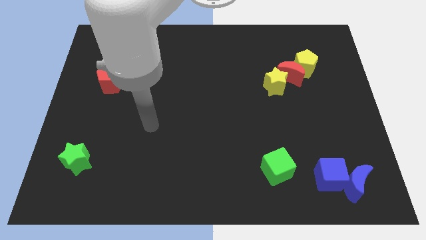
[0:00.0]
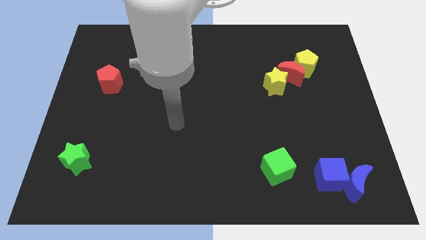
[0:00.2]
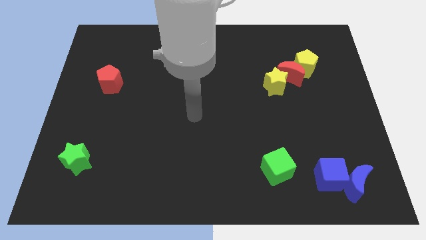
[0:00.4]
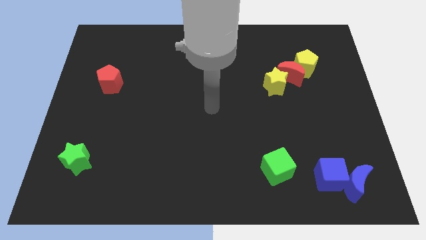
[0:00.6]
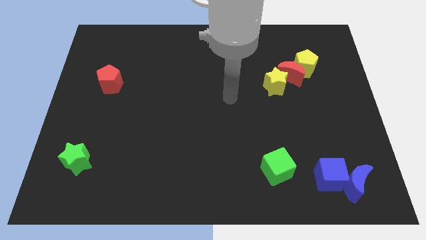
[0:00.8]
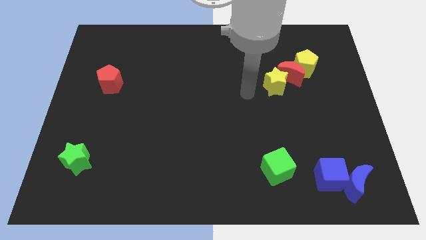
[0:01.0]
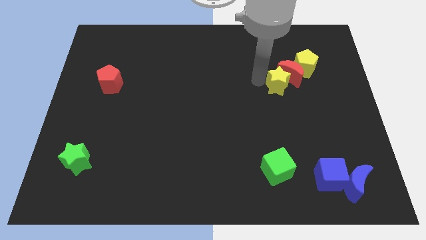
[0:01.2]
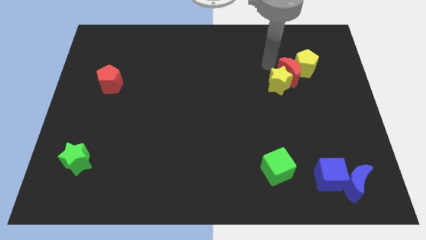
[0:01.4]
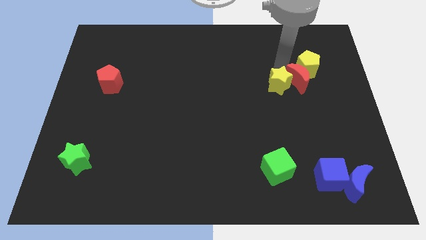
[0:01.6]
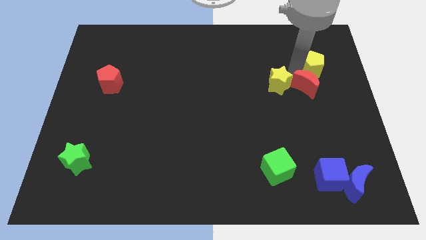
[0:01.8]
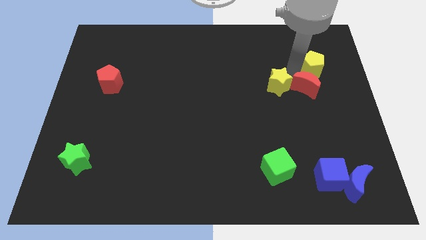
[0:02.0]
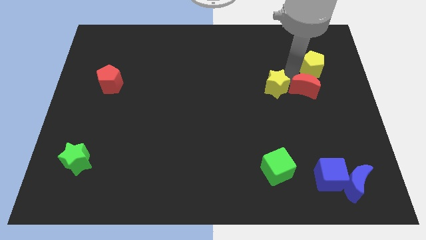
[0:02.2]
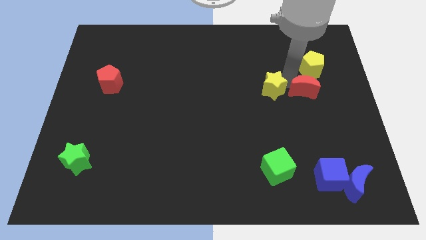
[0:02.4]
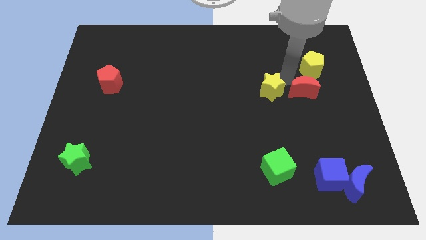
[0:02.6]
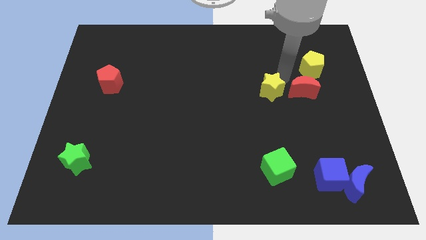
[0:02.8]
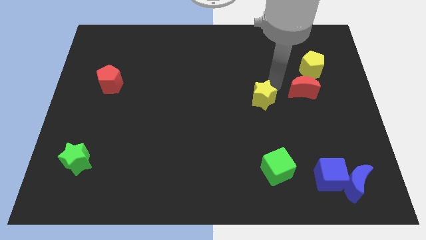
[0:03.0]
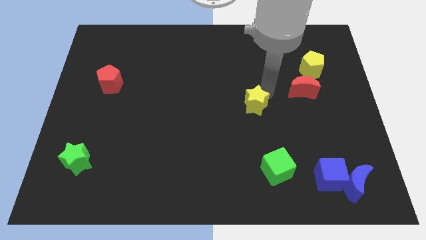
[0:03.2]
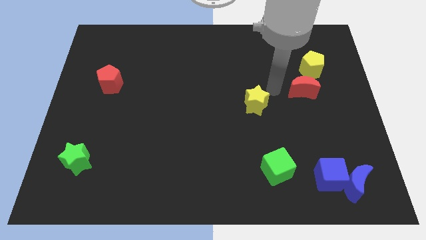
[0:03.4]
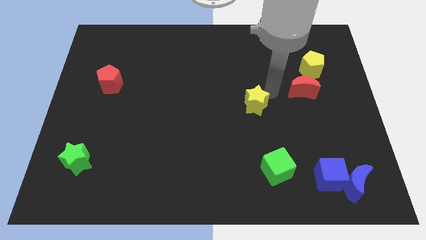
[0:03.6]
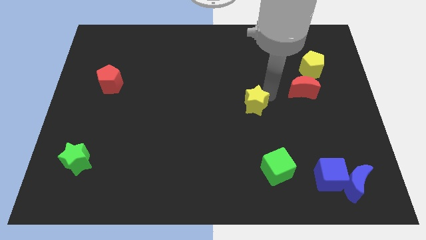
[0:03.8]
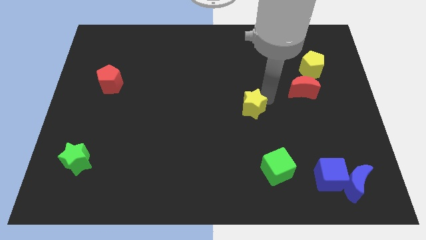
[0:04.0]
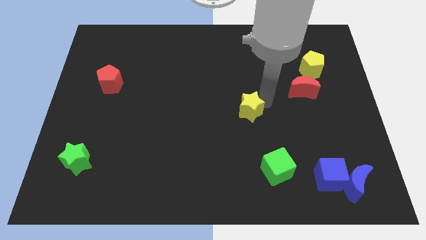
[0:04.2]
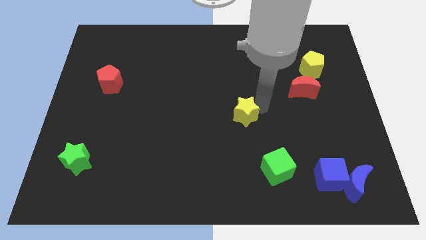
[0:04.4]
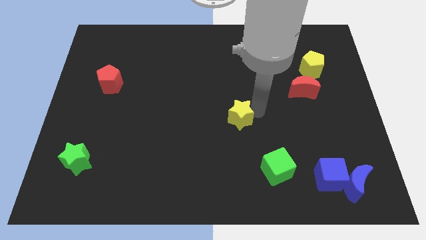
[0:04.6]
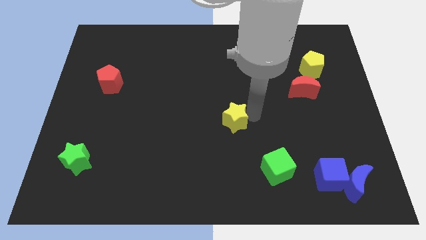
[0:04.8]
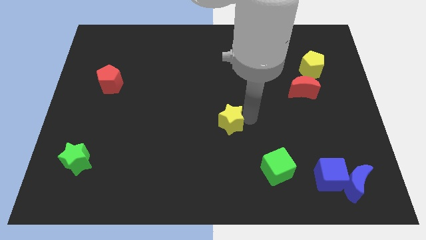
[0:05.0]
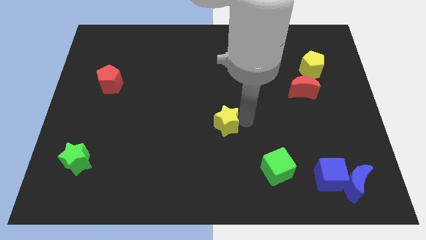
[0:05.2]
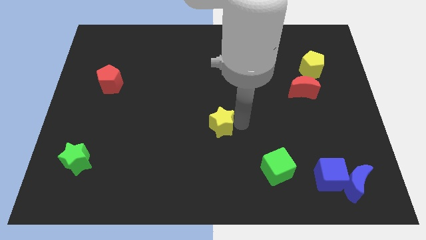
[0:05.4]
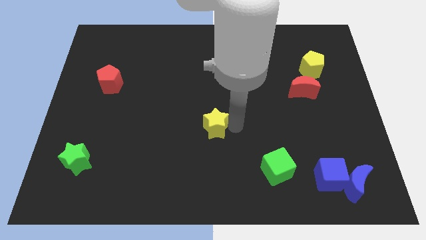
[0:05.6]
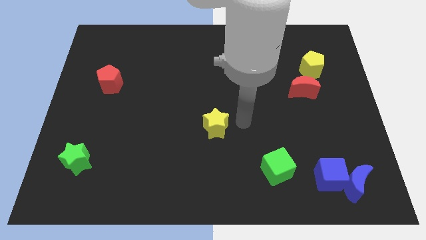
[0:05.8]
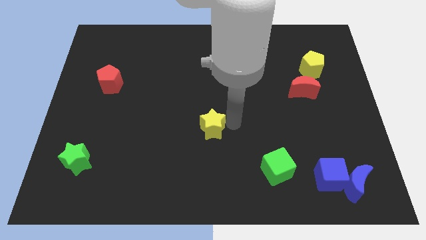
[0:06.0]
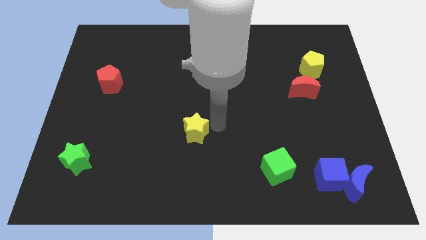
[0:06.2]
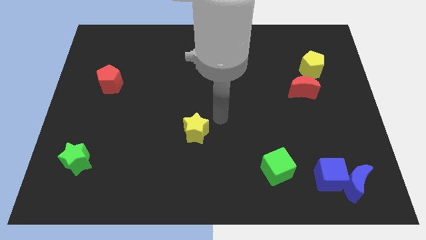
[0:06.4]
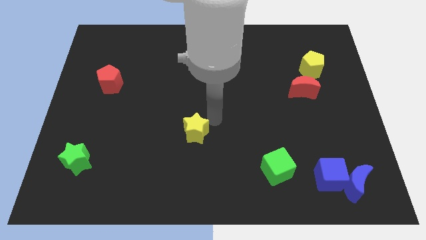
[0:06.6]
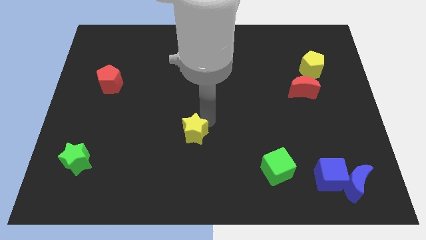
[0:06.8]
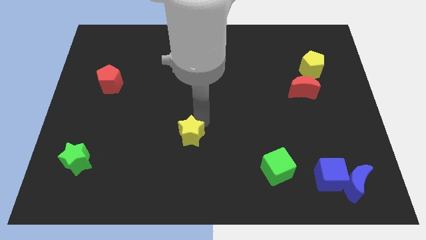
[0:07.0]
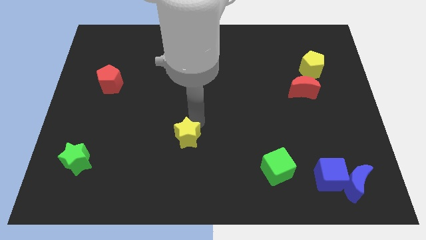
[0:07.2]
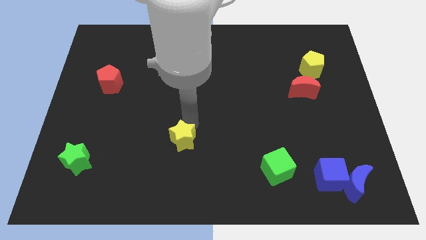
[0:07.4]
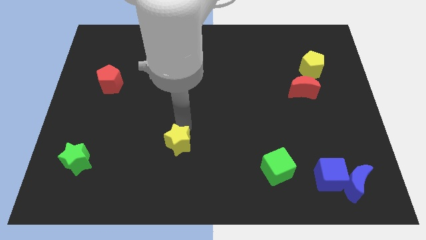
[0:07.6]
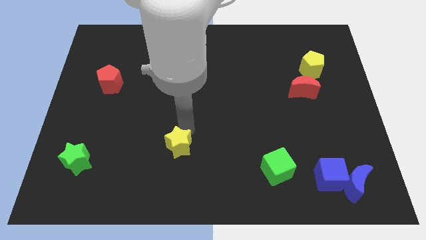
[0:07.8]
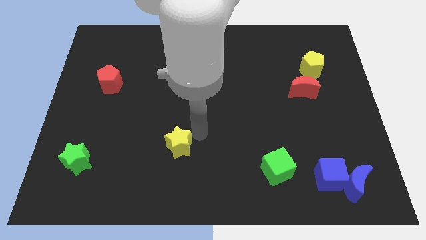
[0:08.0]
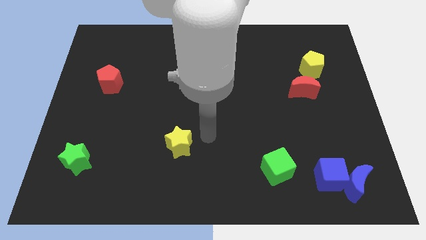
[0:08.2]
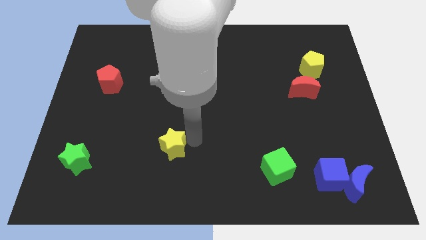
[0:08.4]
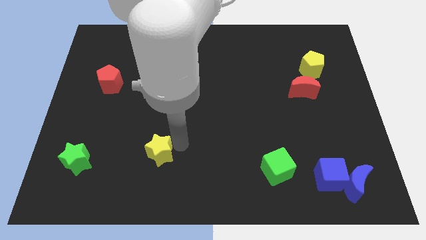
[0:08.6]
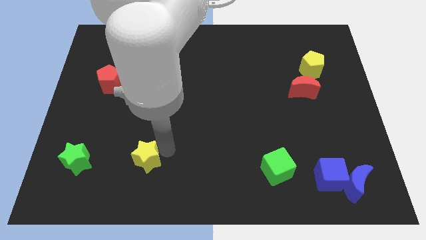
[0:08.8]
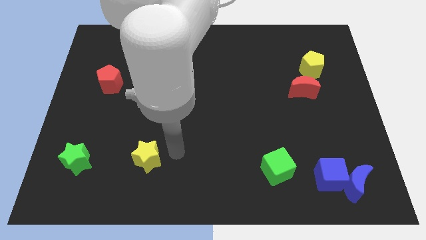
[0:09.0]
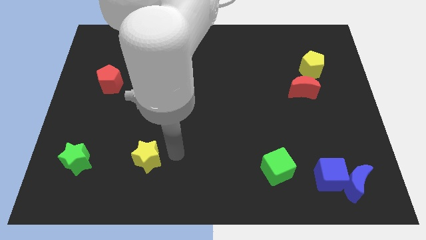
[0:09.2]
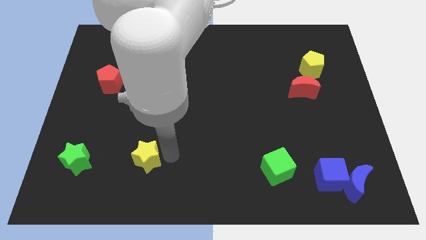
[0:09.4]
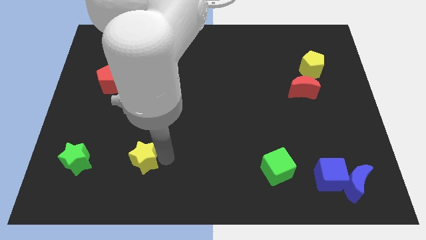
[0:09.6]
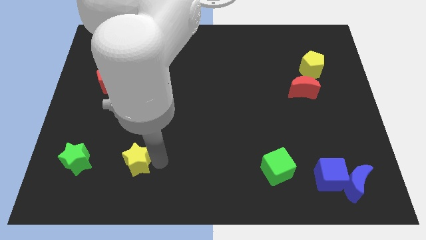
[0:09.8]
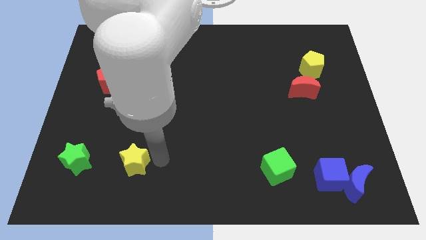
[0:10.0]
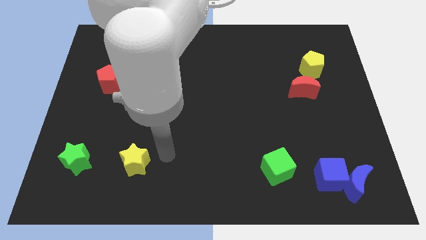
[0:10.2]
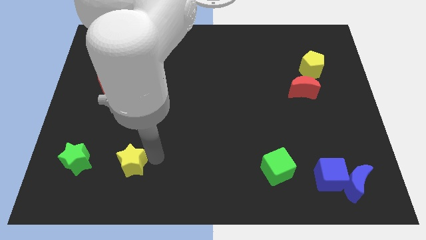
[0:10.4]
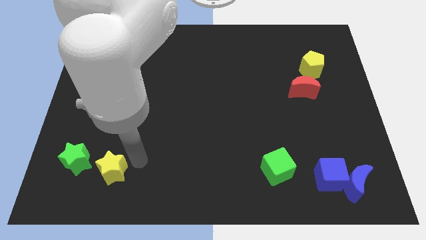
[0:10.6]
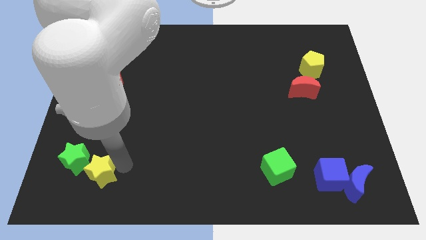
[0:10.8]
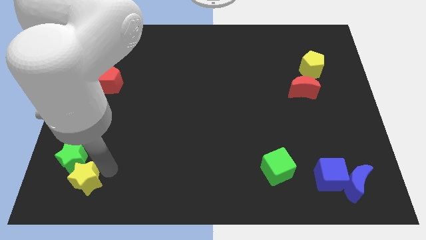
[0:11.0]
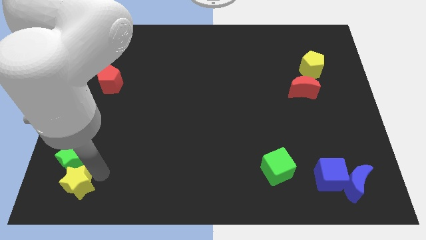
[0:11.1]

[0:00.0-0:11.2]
push the yellow star to the bottom left of the board
